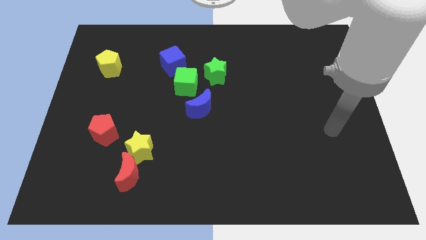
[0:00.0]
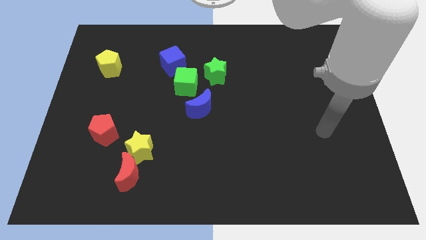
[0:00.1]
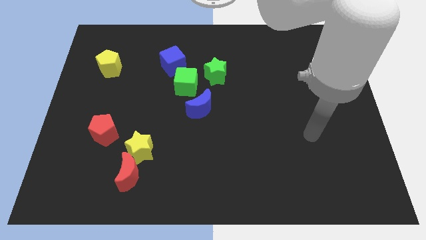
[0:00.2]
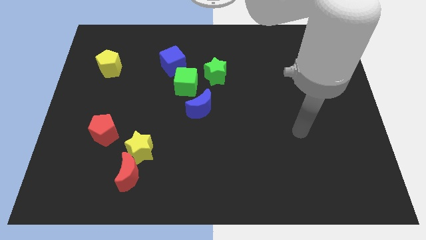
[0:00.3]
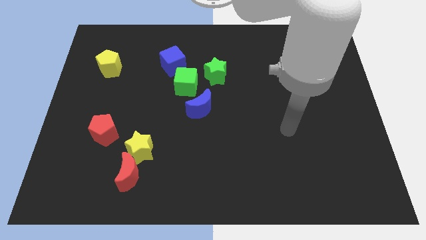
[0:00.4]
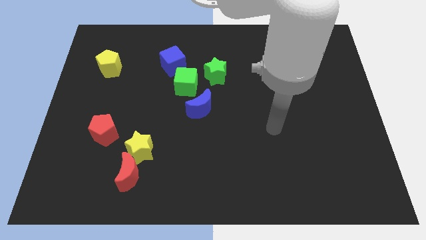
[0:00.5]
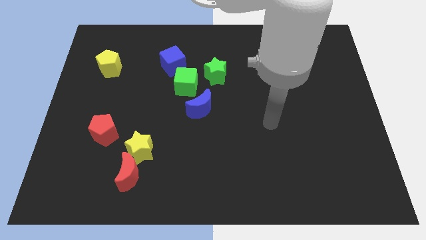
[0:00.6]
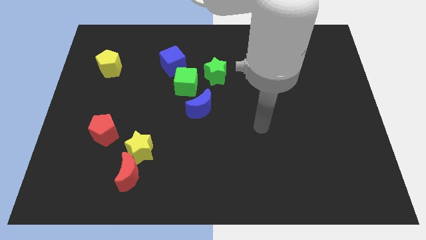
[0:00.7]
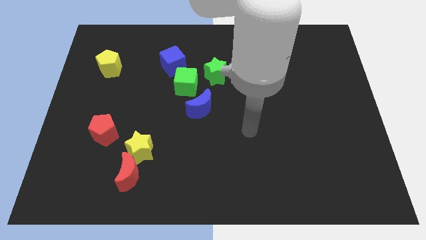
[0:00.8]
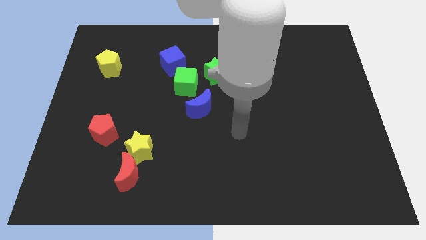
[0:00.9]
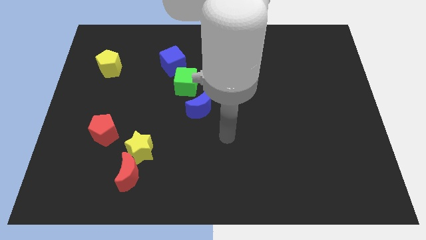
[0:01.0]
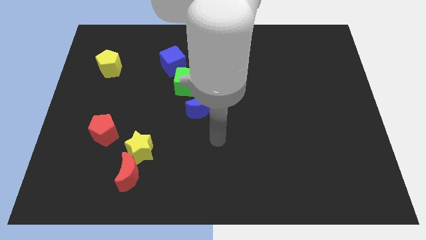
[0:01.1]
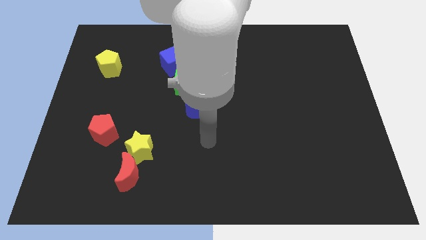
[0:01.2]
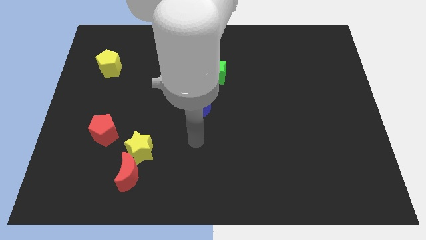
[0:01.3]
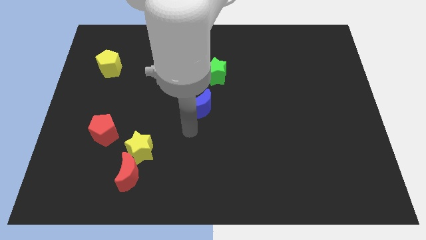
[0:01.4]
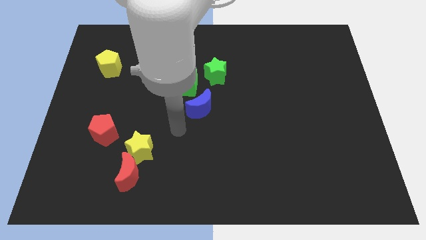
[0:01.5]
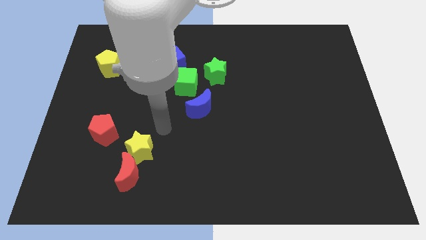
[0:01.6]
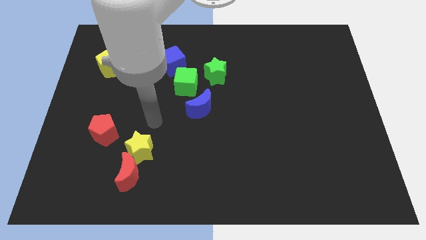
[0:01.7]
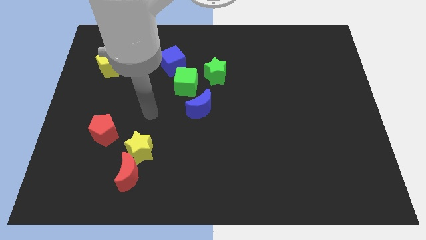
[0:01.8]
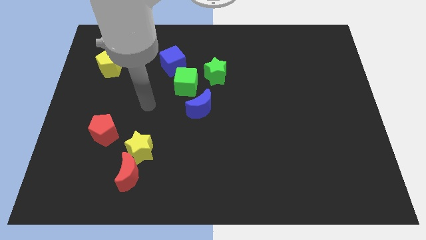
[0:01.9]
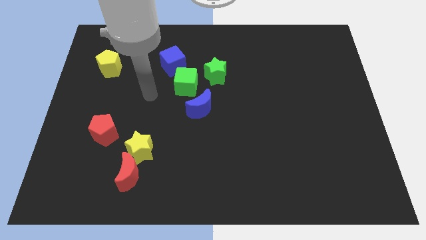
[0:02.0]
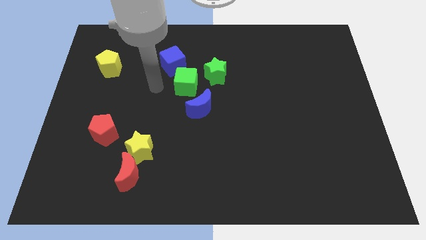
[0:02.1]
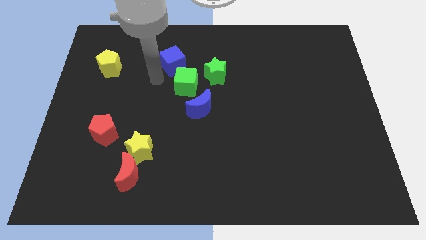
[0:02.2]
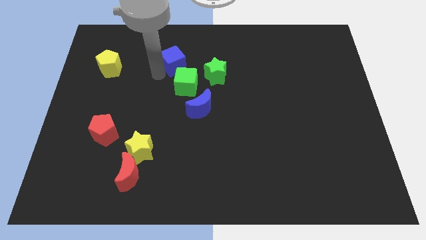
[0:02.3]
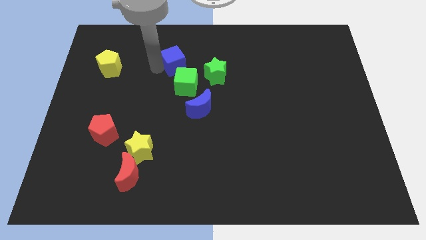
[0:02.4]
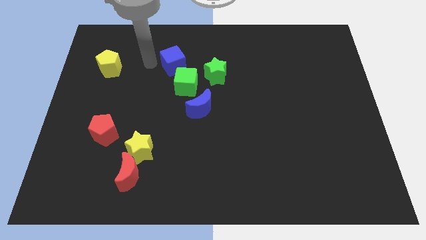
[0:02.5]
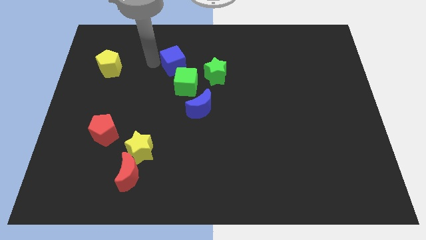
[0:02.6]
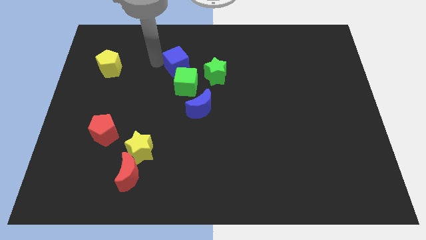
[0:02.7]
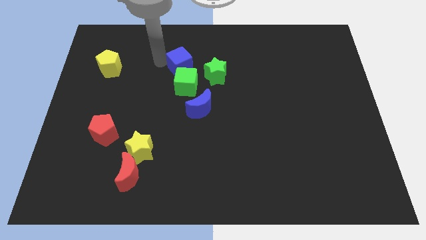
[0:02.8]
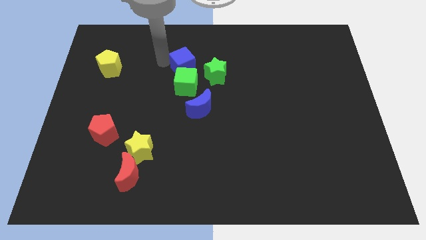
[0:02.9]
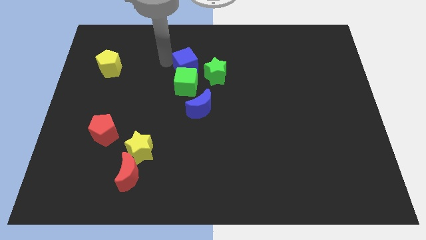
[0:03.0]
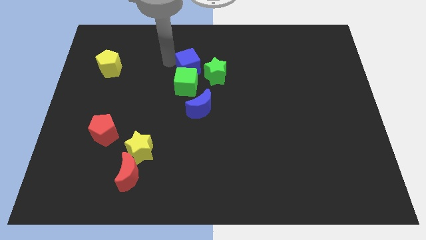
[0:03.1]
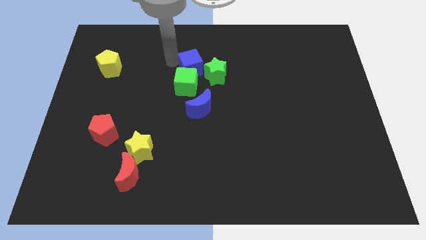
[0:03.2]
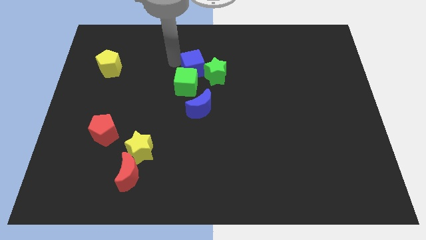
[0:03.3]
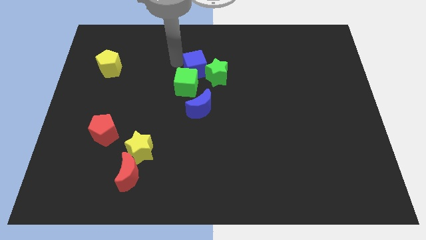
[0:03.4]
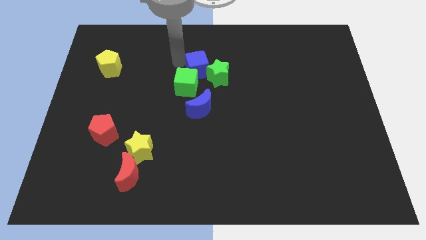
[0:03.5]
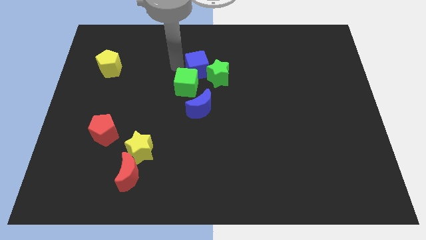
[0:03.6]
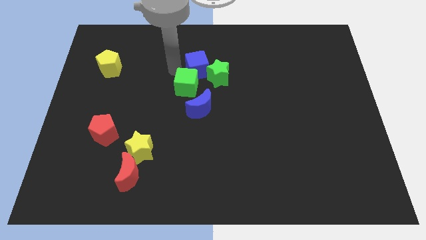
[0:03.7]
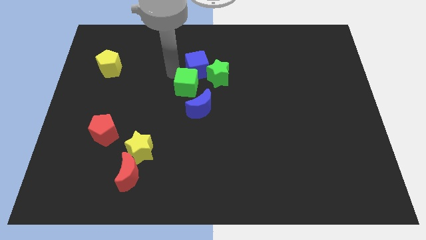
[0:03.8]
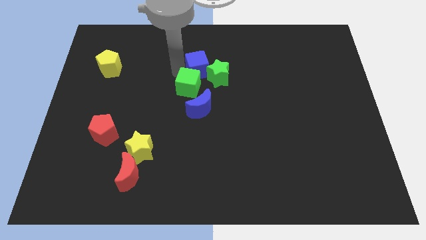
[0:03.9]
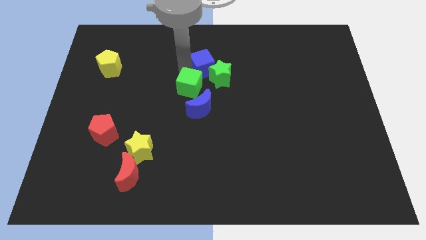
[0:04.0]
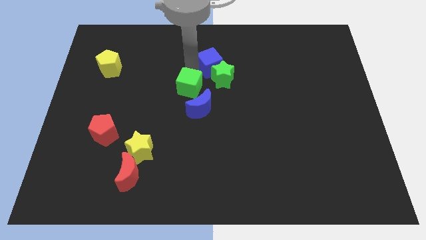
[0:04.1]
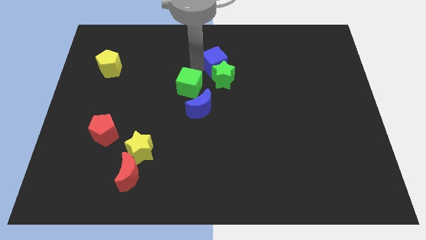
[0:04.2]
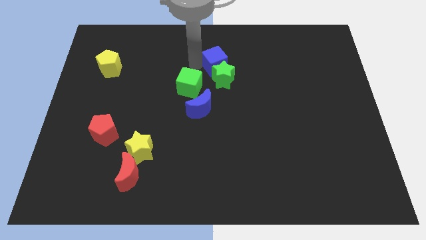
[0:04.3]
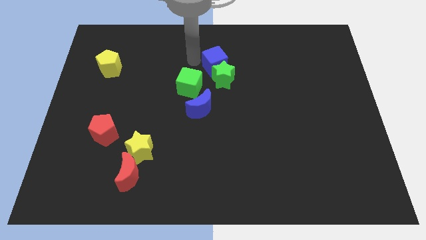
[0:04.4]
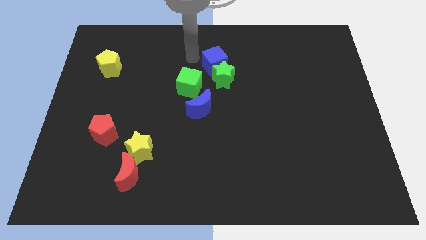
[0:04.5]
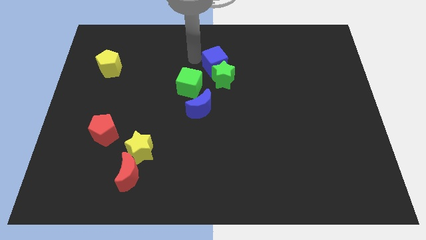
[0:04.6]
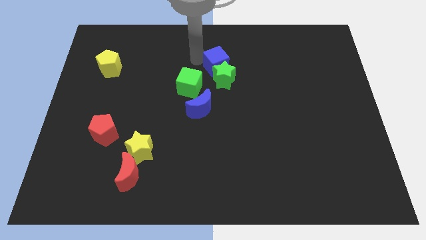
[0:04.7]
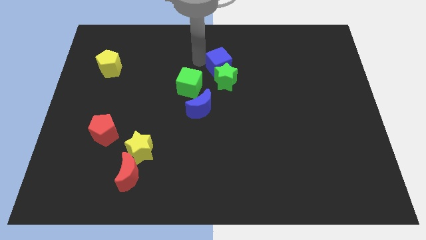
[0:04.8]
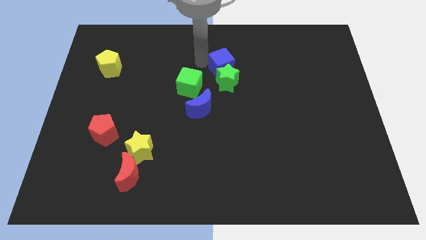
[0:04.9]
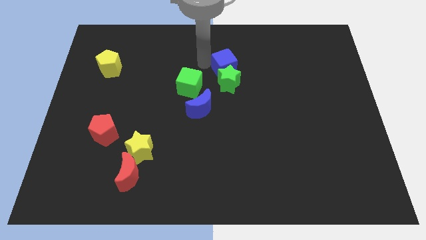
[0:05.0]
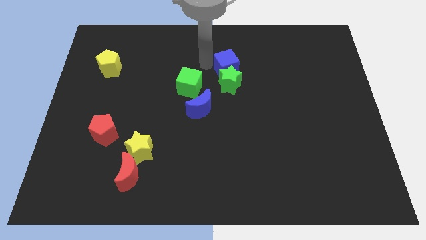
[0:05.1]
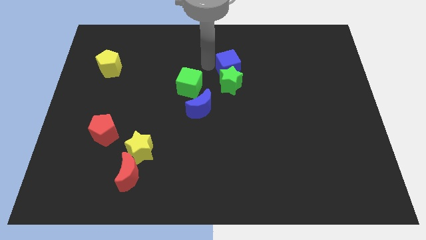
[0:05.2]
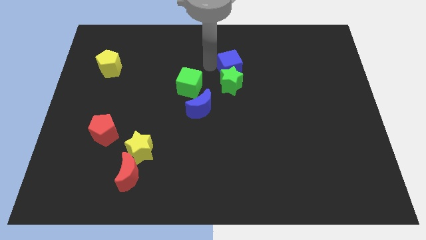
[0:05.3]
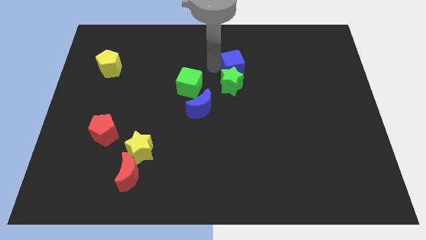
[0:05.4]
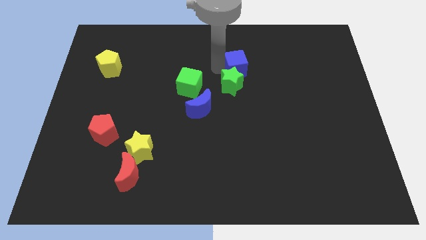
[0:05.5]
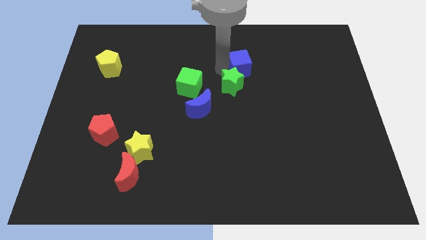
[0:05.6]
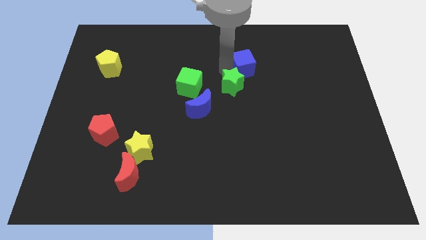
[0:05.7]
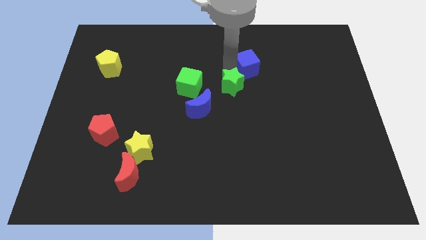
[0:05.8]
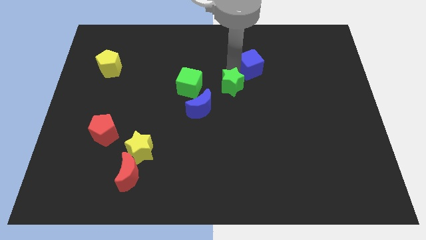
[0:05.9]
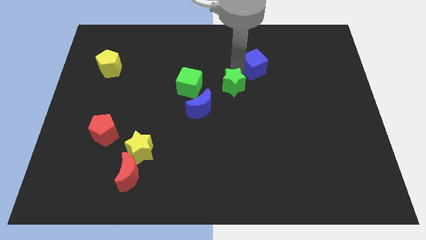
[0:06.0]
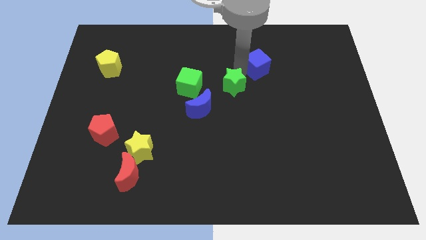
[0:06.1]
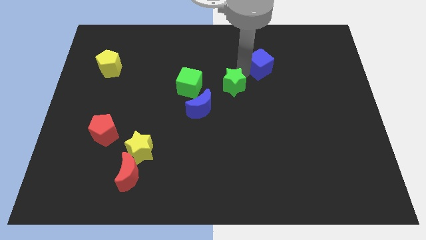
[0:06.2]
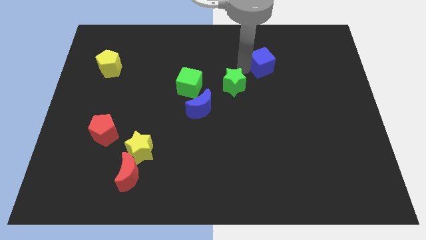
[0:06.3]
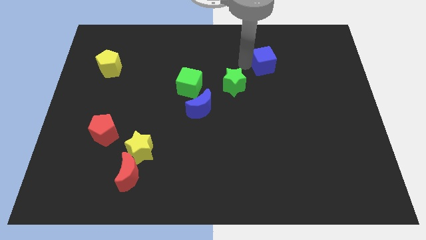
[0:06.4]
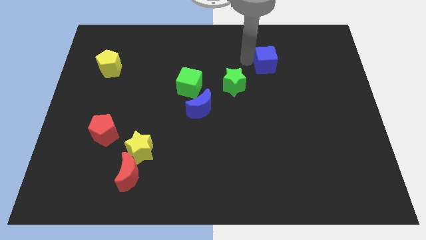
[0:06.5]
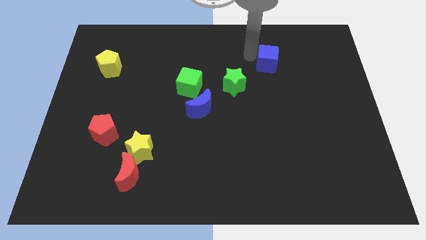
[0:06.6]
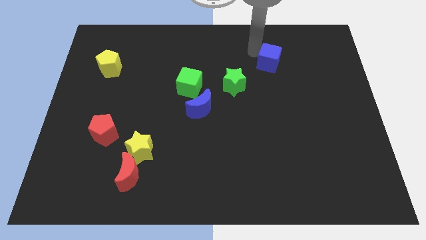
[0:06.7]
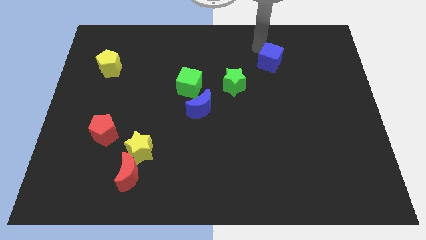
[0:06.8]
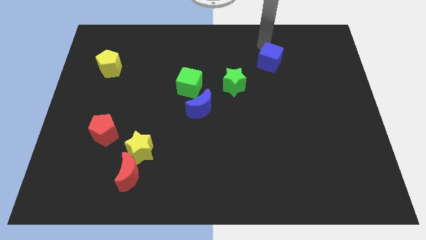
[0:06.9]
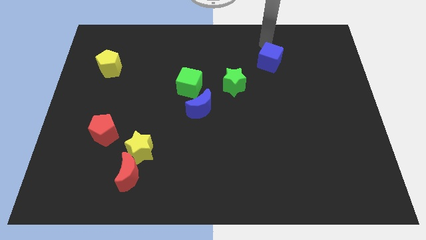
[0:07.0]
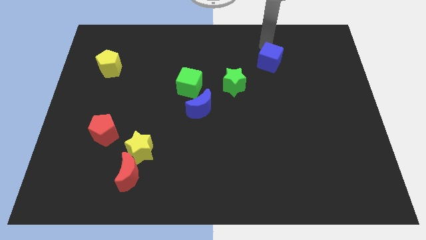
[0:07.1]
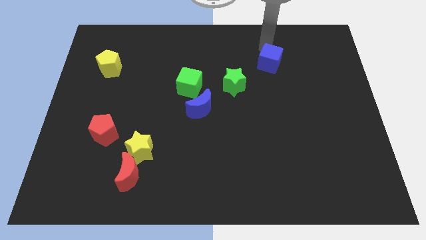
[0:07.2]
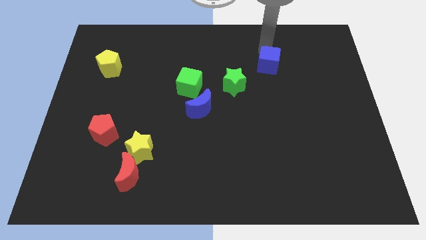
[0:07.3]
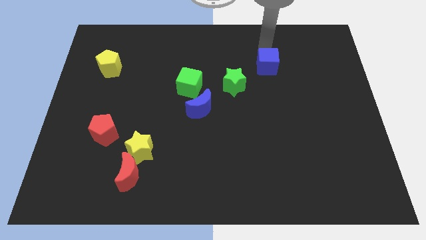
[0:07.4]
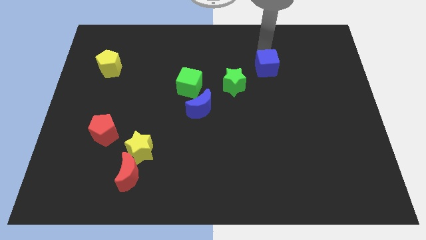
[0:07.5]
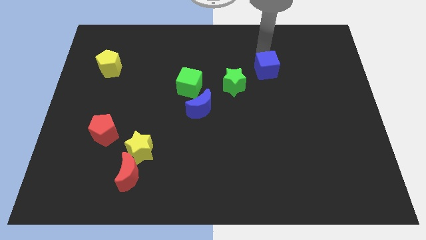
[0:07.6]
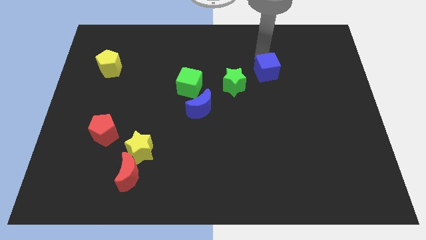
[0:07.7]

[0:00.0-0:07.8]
push the blue cube to the right side of the green star

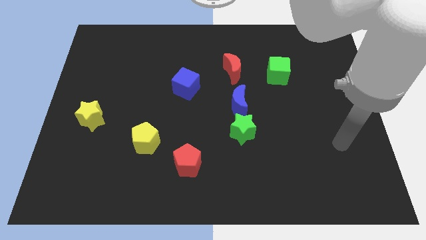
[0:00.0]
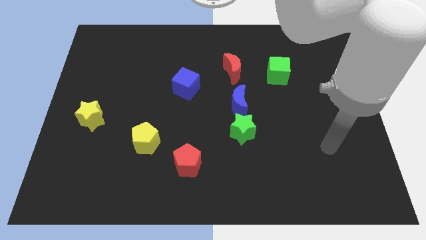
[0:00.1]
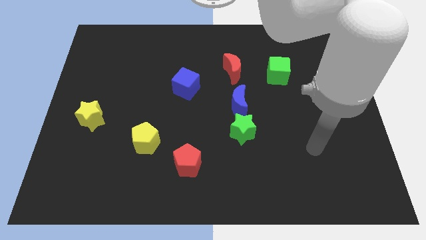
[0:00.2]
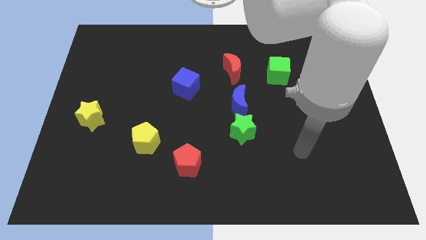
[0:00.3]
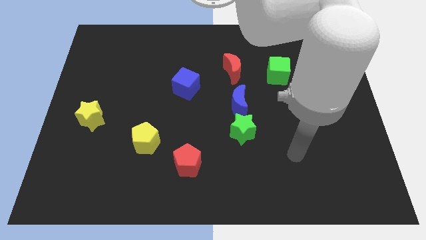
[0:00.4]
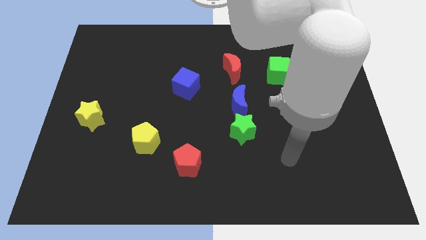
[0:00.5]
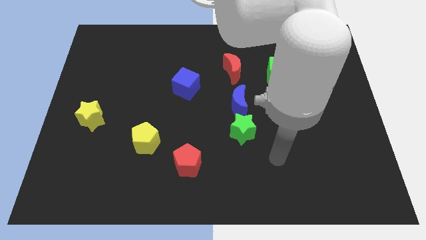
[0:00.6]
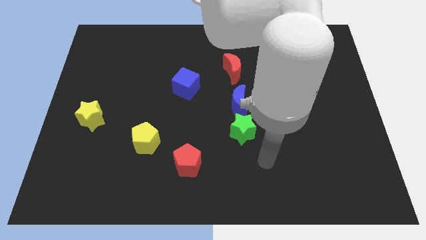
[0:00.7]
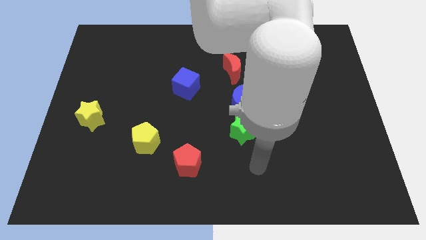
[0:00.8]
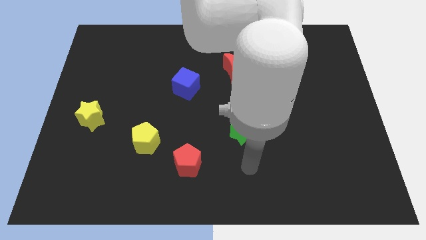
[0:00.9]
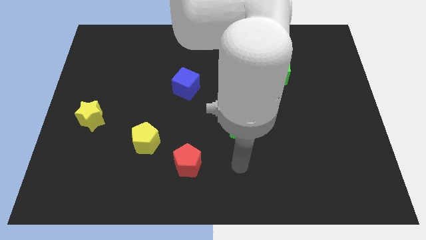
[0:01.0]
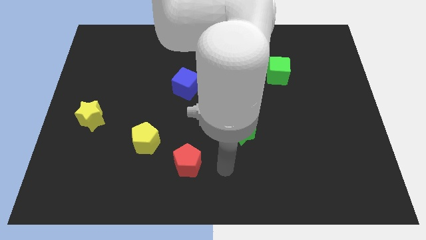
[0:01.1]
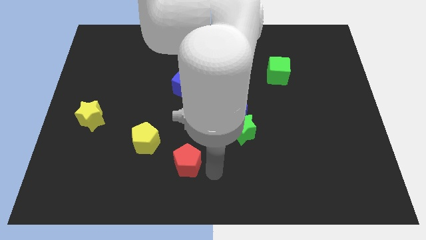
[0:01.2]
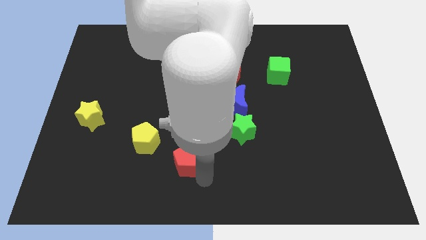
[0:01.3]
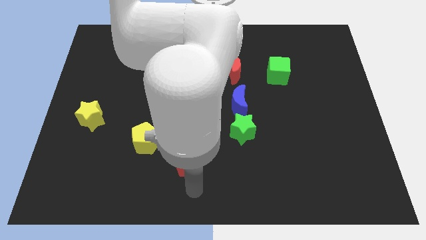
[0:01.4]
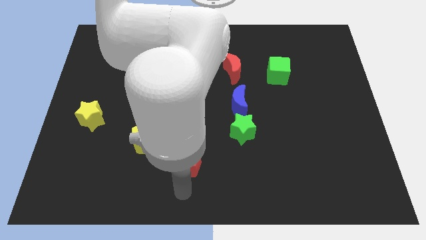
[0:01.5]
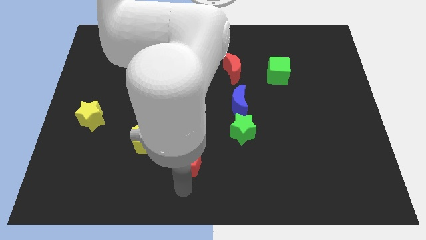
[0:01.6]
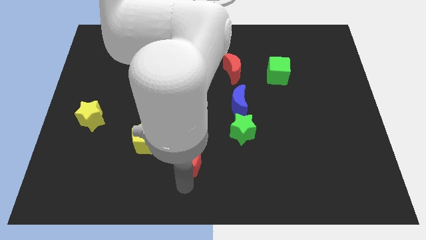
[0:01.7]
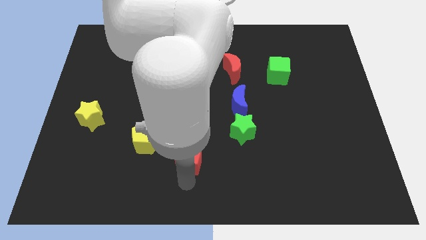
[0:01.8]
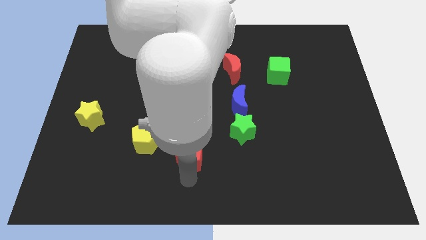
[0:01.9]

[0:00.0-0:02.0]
put the red pentagon to the right side of the yellow pentagon
